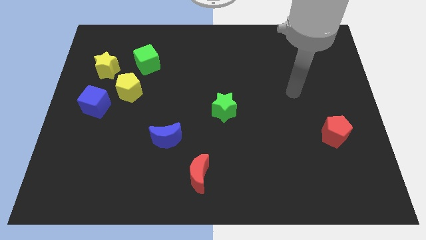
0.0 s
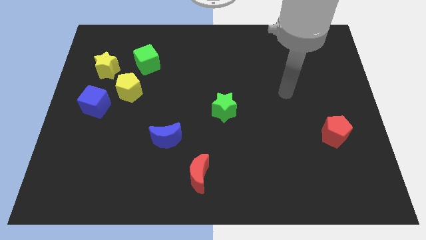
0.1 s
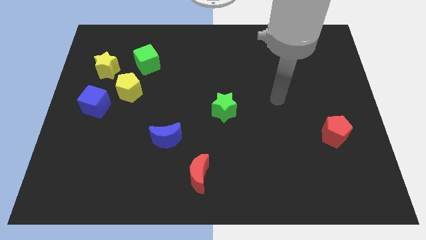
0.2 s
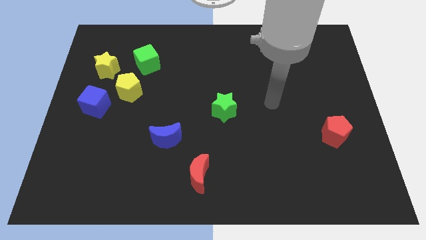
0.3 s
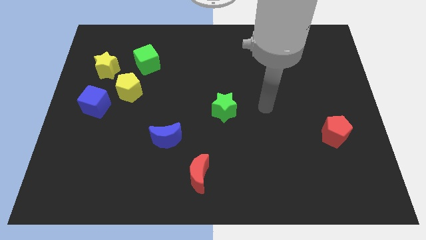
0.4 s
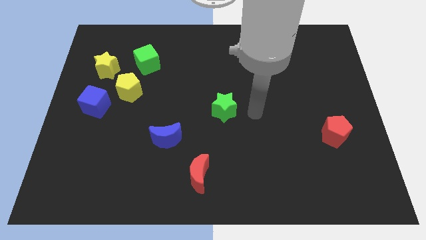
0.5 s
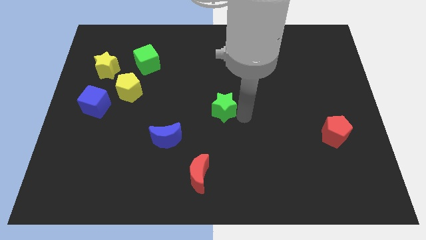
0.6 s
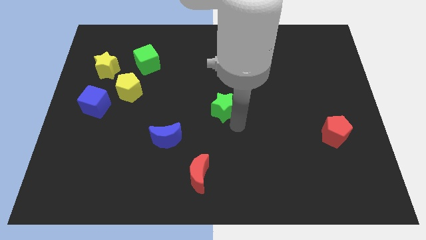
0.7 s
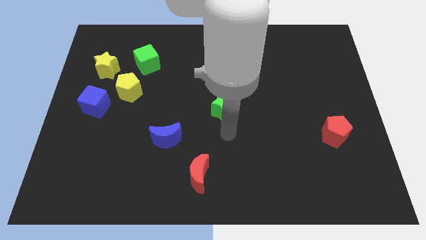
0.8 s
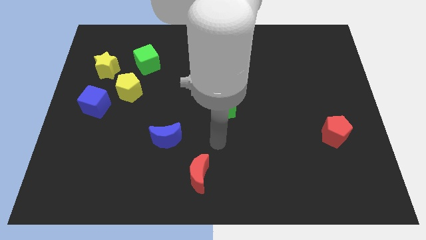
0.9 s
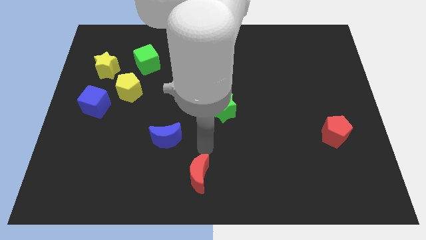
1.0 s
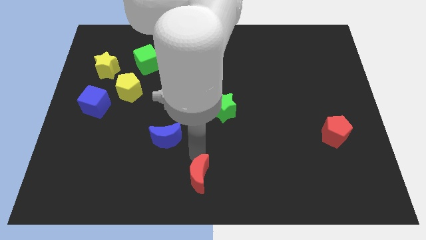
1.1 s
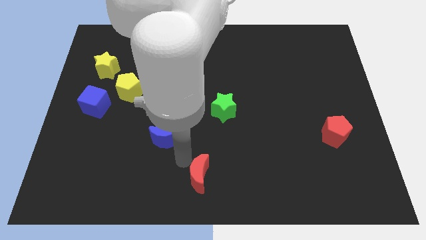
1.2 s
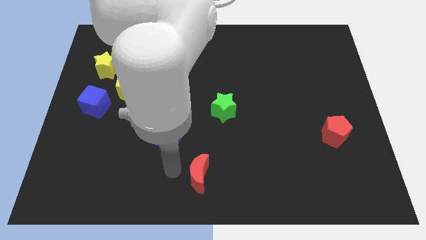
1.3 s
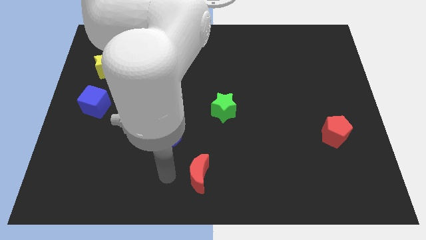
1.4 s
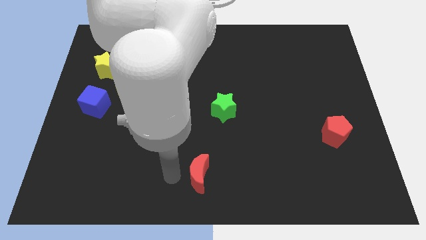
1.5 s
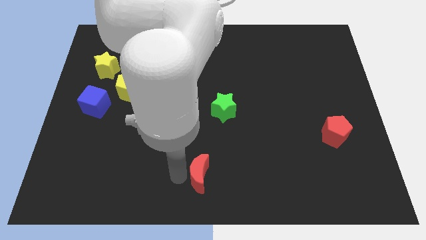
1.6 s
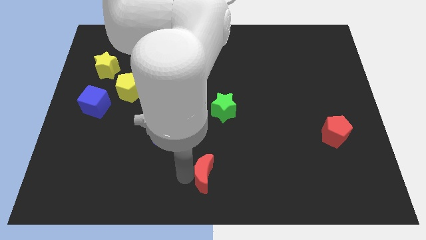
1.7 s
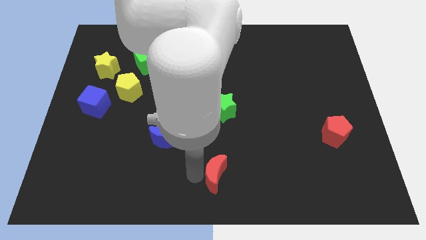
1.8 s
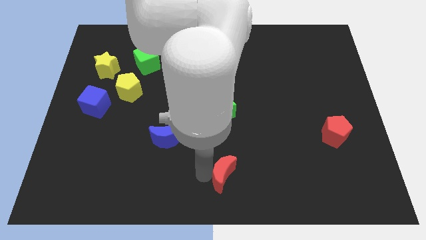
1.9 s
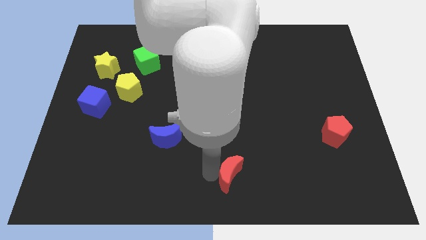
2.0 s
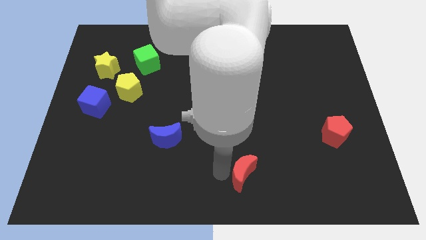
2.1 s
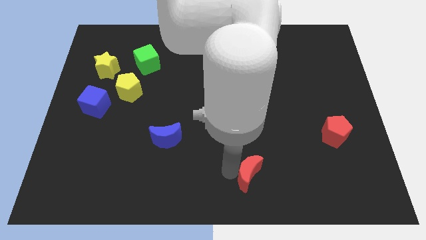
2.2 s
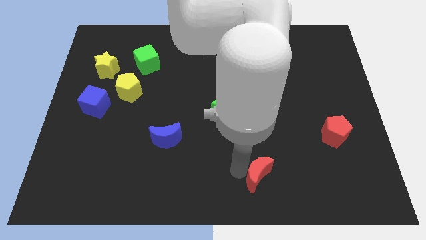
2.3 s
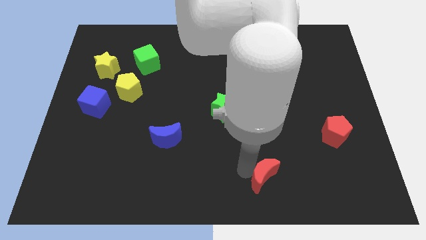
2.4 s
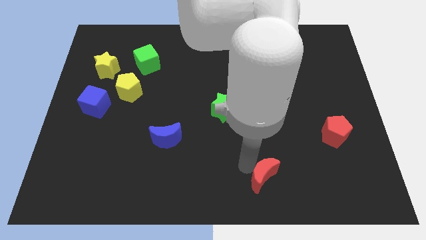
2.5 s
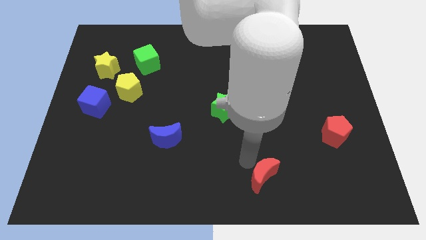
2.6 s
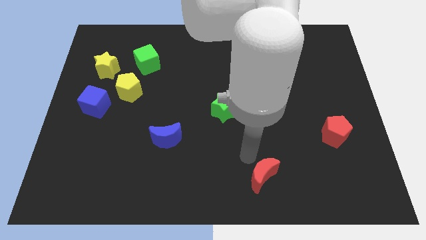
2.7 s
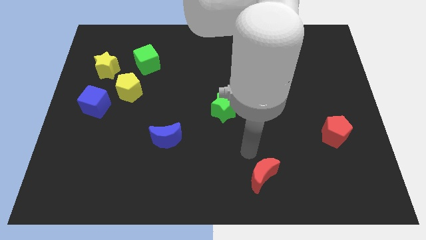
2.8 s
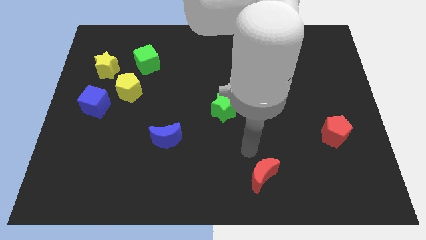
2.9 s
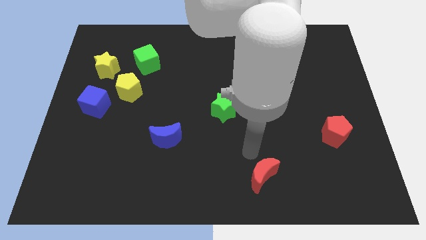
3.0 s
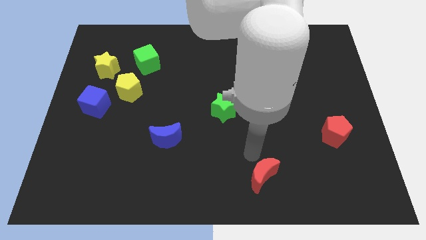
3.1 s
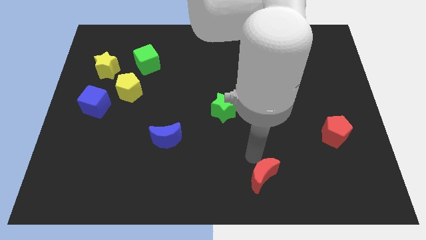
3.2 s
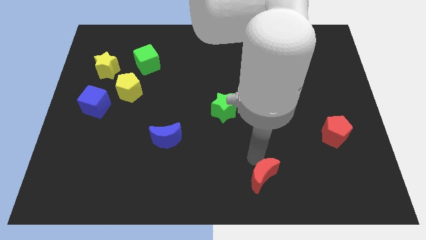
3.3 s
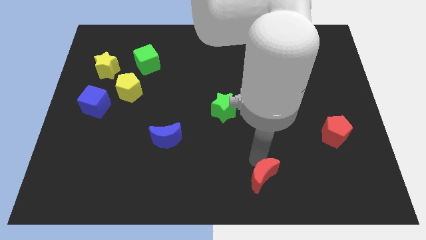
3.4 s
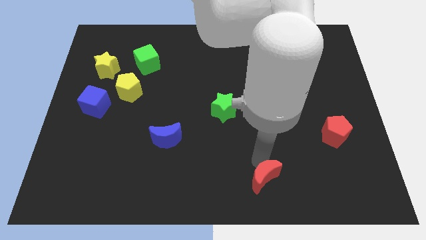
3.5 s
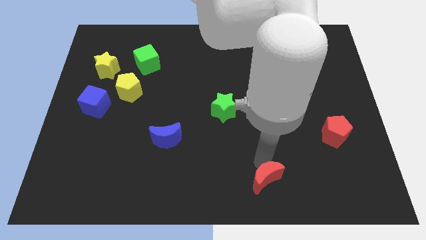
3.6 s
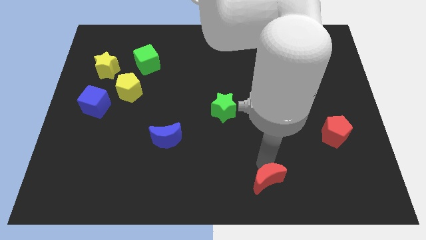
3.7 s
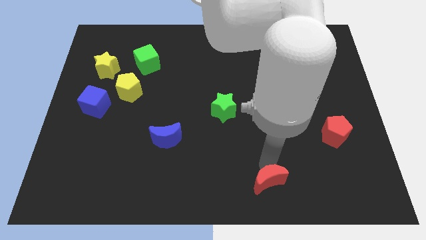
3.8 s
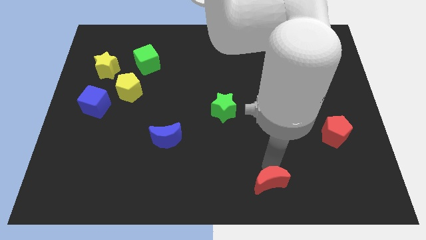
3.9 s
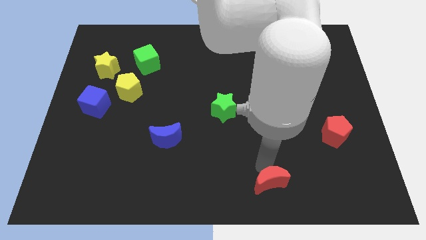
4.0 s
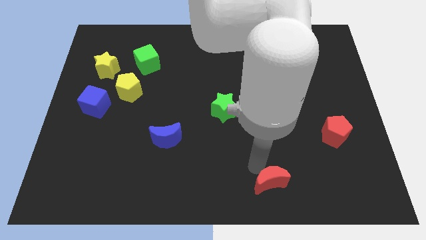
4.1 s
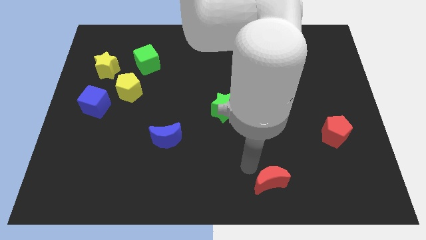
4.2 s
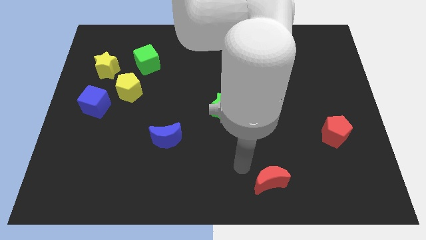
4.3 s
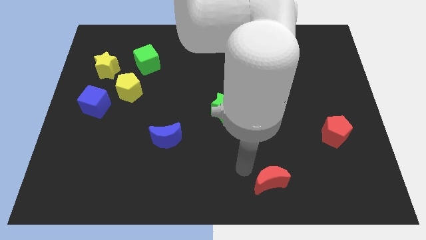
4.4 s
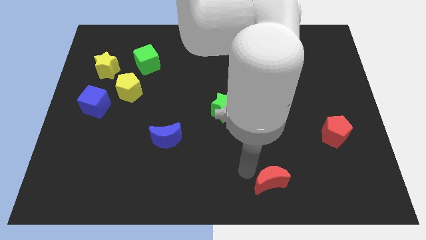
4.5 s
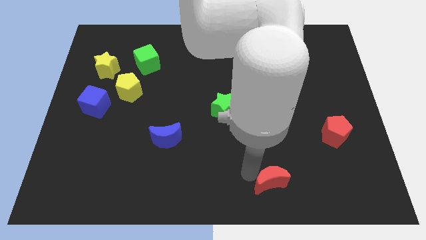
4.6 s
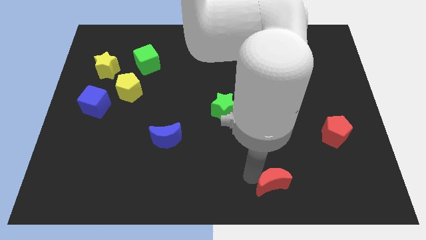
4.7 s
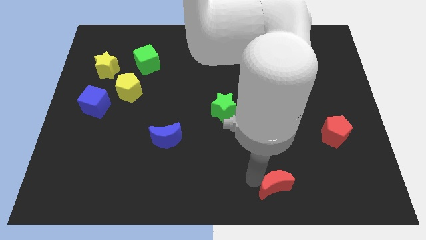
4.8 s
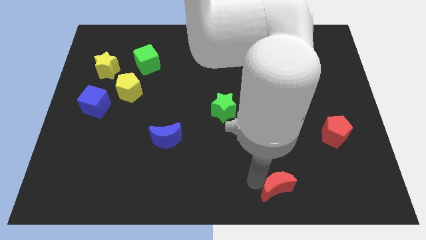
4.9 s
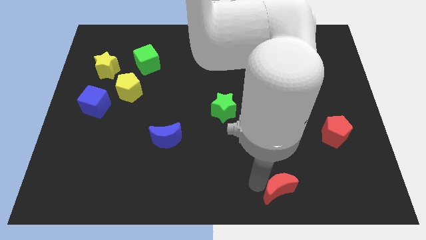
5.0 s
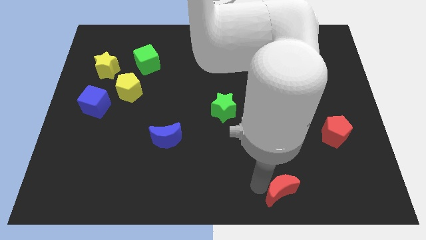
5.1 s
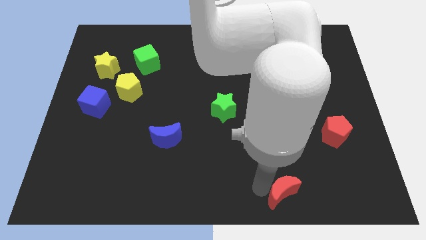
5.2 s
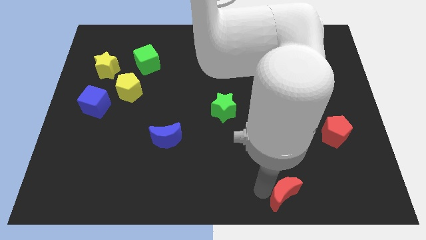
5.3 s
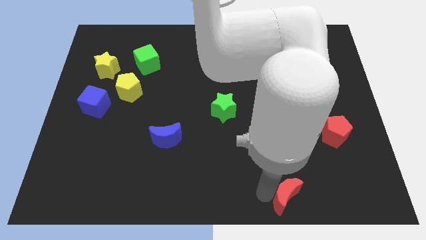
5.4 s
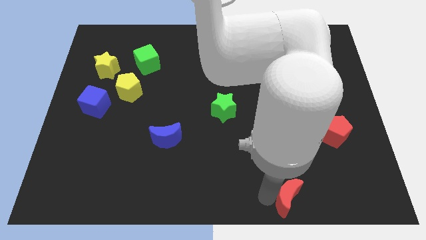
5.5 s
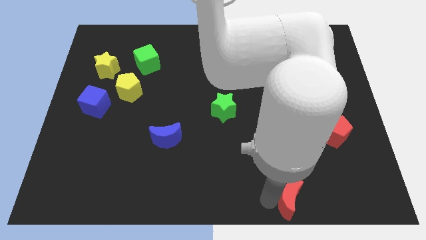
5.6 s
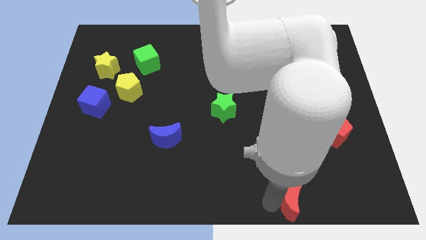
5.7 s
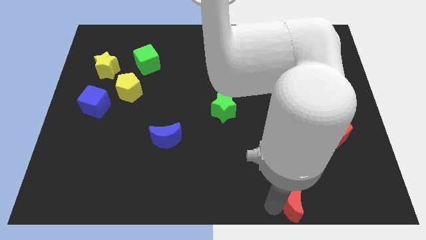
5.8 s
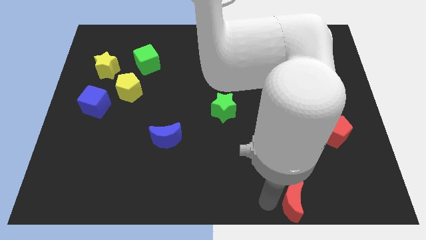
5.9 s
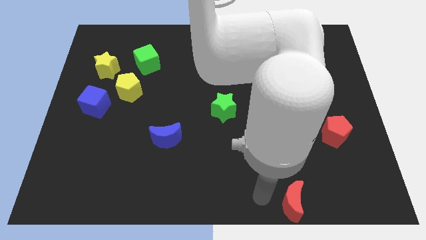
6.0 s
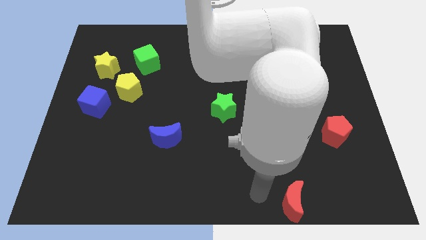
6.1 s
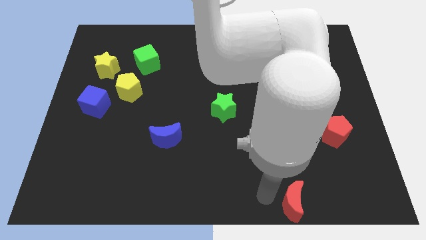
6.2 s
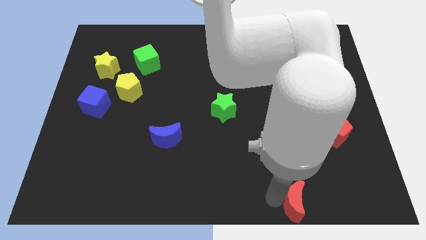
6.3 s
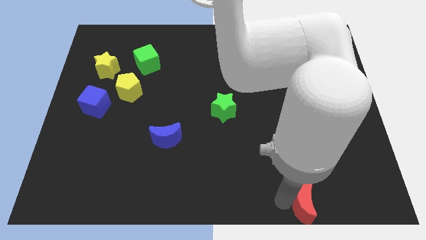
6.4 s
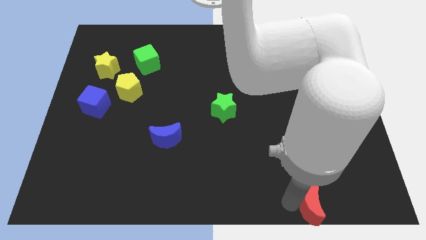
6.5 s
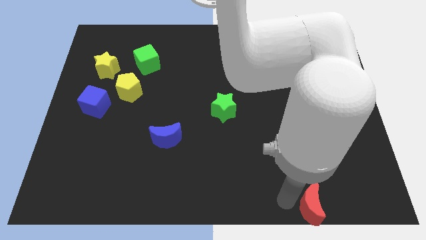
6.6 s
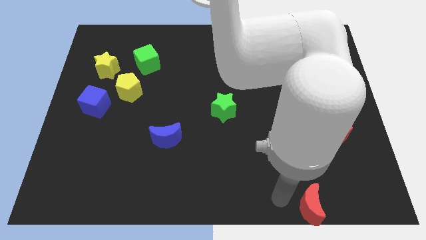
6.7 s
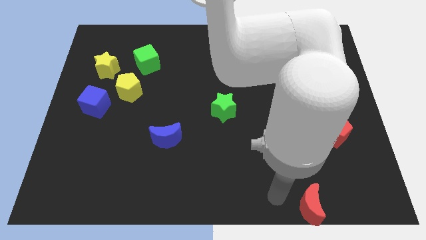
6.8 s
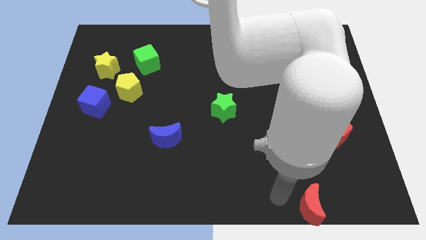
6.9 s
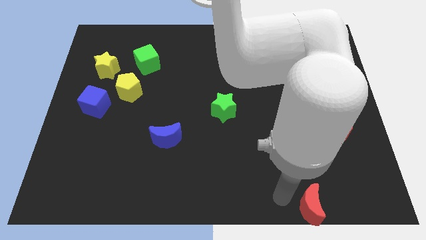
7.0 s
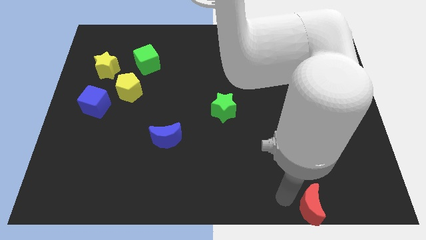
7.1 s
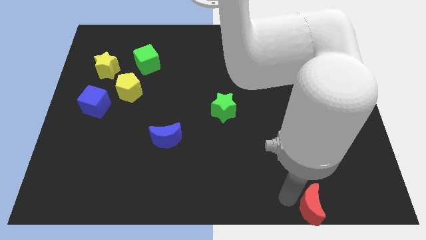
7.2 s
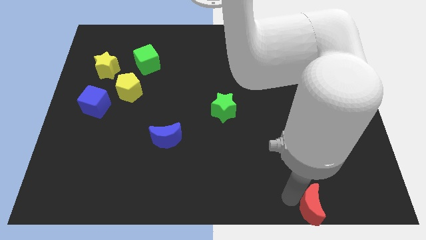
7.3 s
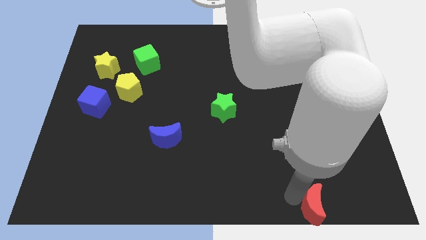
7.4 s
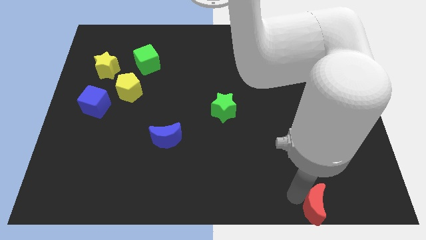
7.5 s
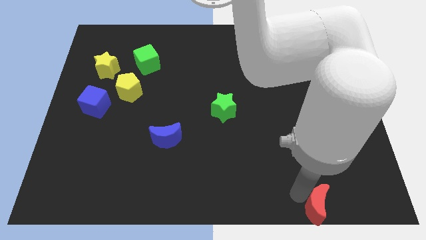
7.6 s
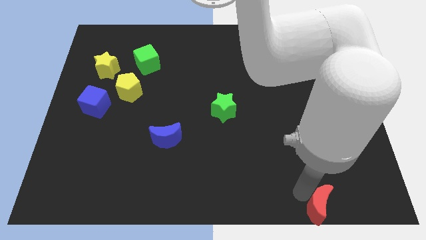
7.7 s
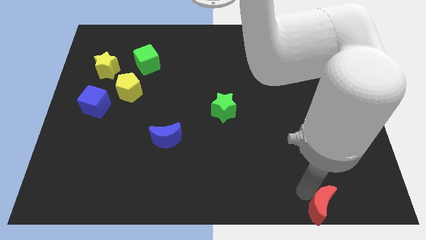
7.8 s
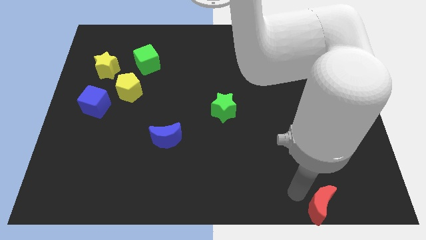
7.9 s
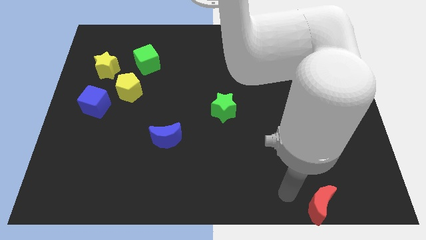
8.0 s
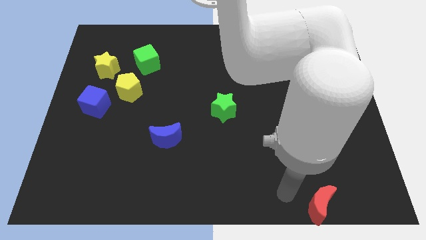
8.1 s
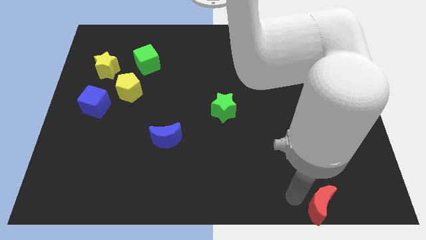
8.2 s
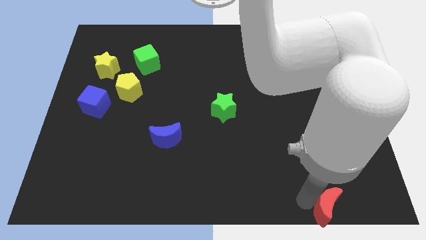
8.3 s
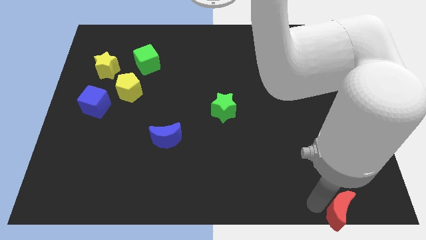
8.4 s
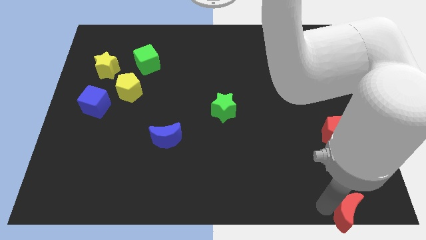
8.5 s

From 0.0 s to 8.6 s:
put the red moon to the bottom right corner
